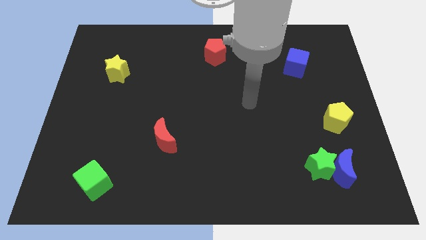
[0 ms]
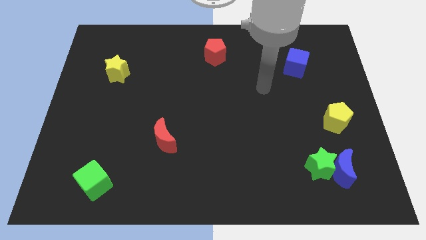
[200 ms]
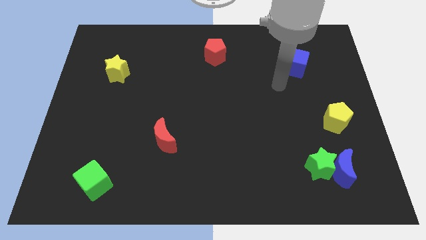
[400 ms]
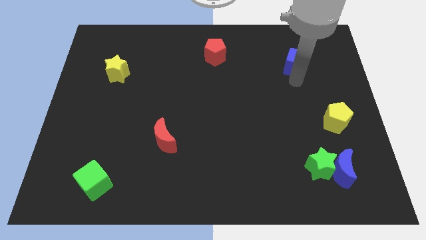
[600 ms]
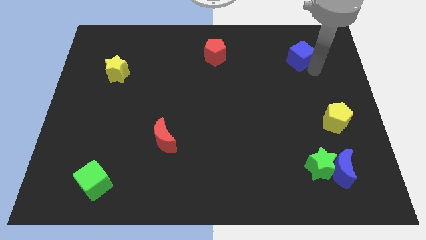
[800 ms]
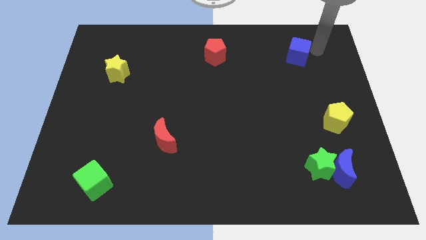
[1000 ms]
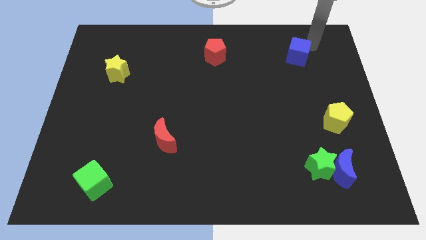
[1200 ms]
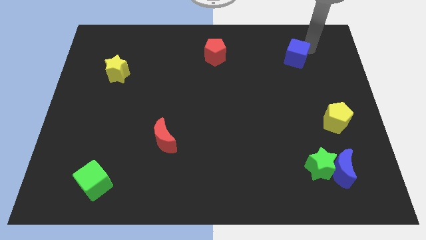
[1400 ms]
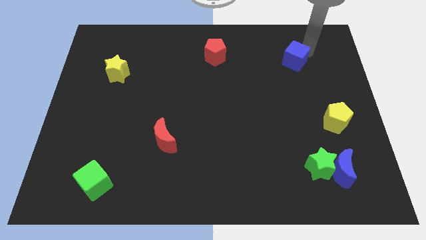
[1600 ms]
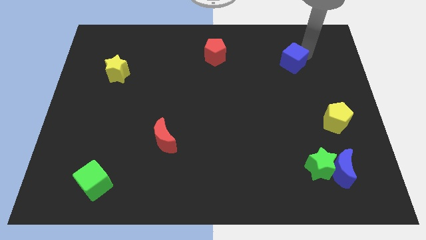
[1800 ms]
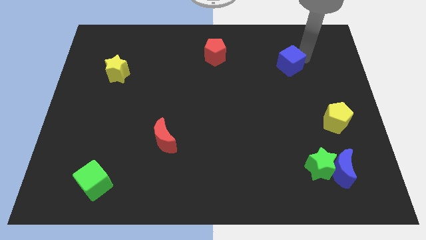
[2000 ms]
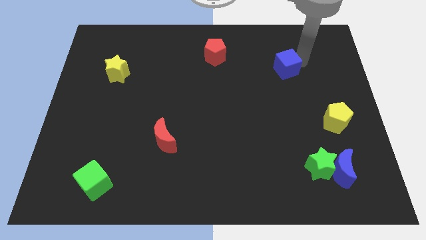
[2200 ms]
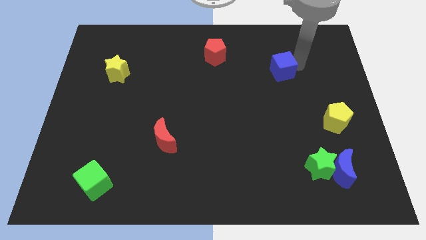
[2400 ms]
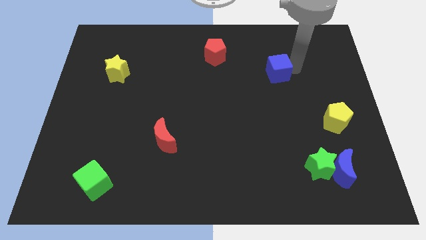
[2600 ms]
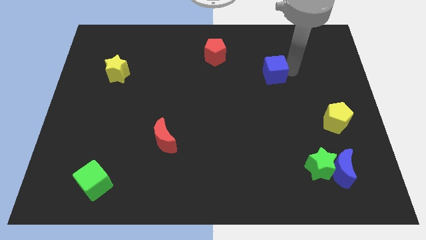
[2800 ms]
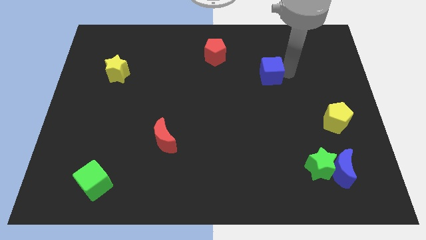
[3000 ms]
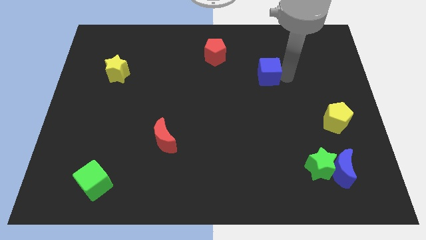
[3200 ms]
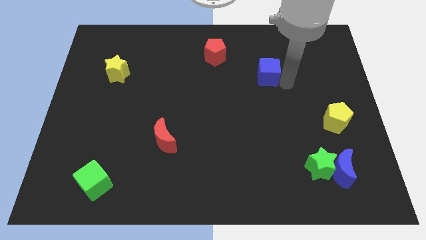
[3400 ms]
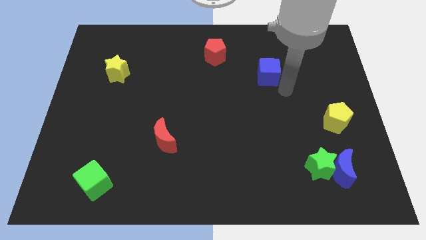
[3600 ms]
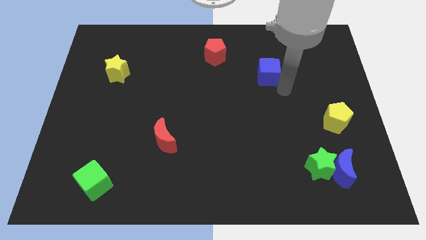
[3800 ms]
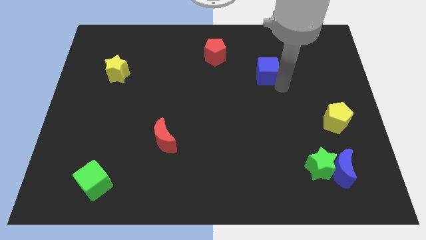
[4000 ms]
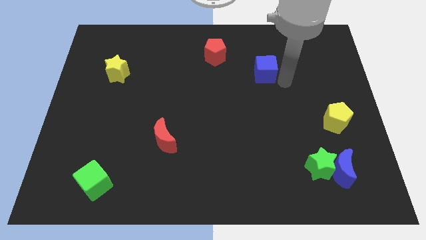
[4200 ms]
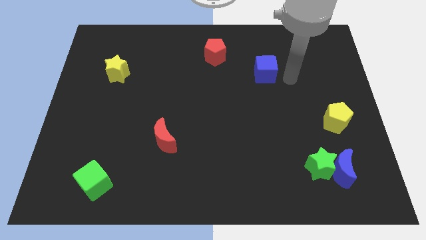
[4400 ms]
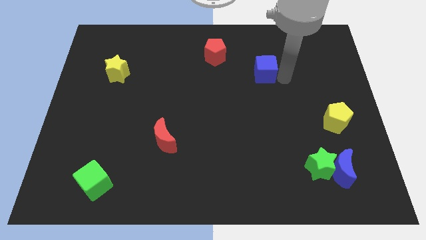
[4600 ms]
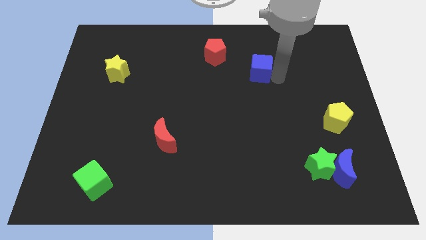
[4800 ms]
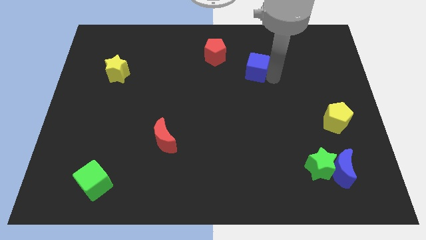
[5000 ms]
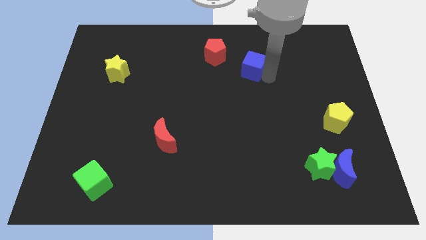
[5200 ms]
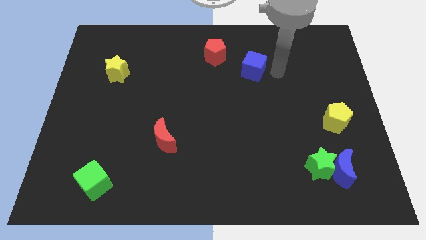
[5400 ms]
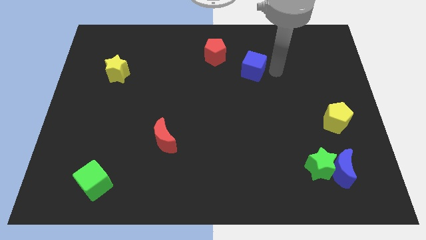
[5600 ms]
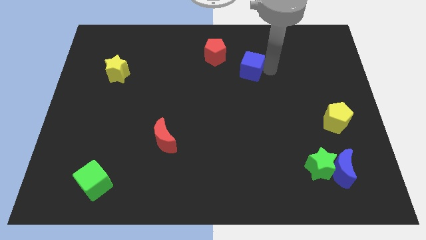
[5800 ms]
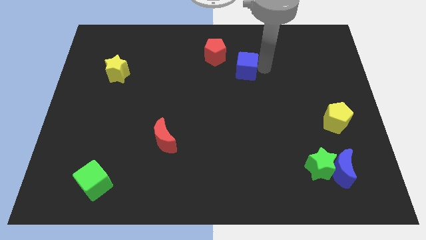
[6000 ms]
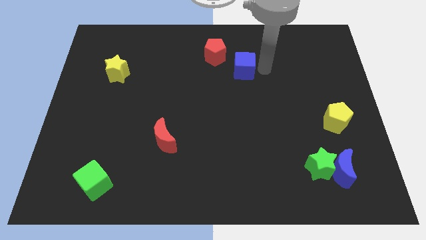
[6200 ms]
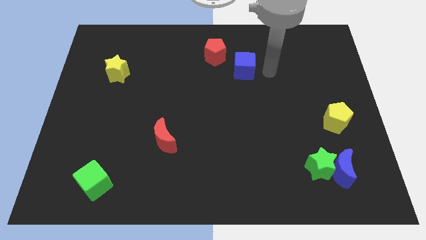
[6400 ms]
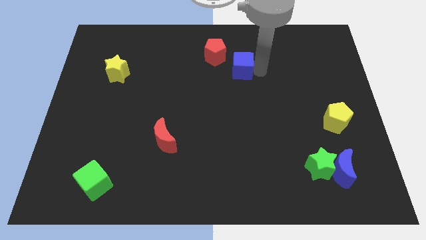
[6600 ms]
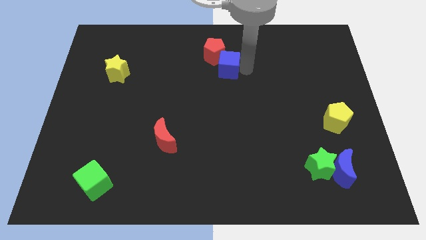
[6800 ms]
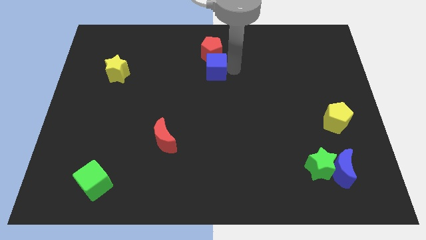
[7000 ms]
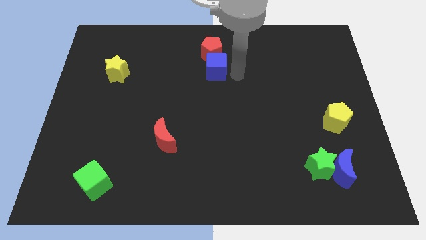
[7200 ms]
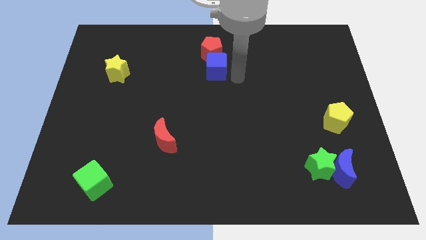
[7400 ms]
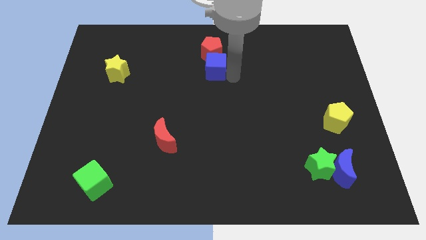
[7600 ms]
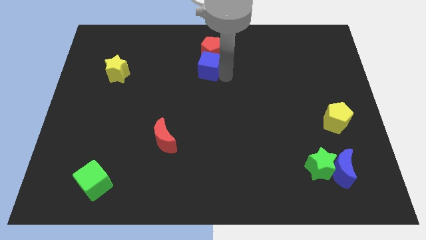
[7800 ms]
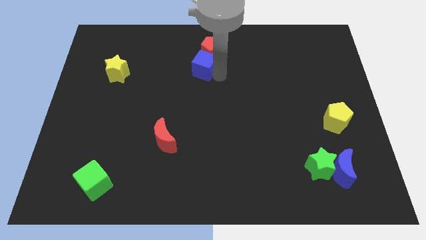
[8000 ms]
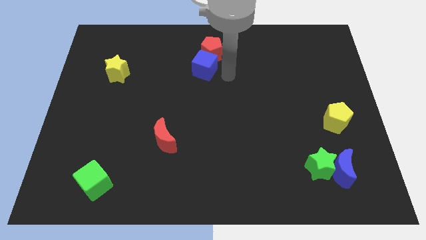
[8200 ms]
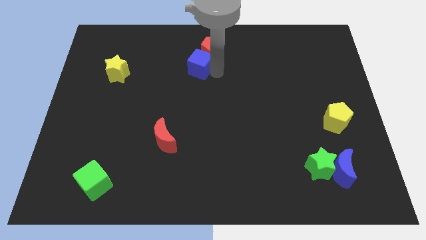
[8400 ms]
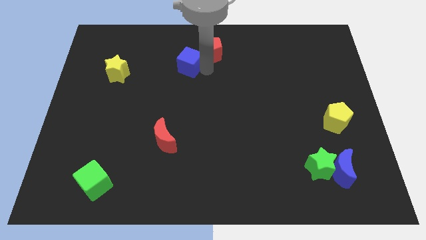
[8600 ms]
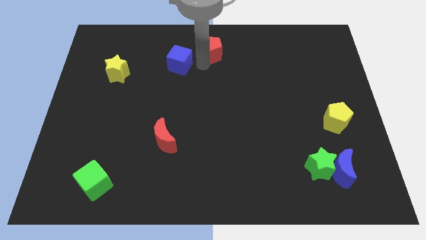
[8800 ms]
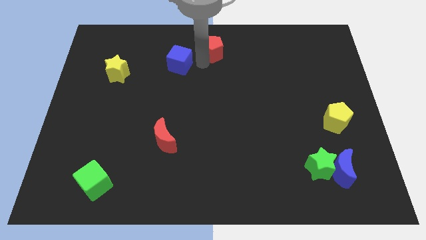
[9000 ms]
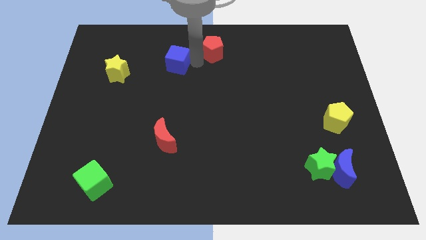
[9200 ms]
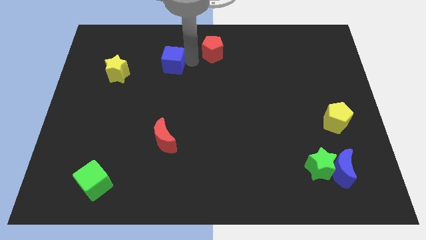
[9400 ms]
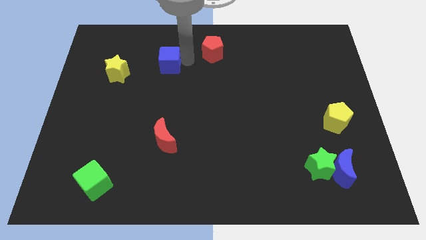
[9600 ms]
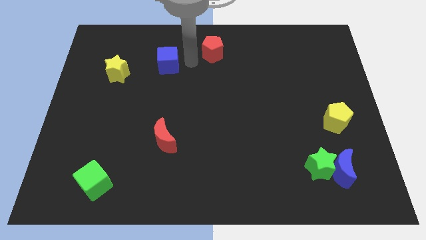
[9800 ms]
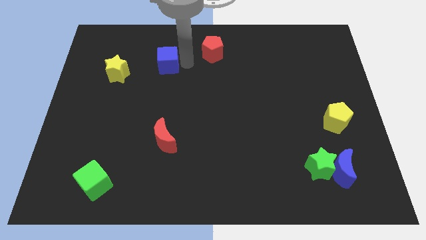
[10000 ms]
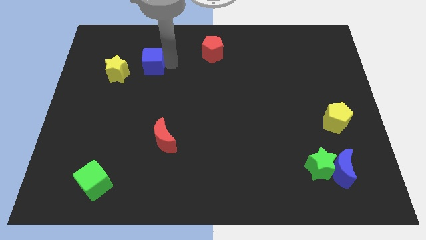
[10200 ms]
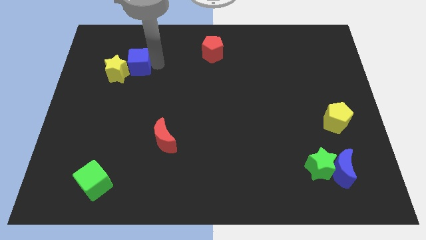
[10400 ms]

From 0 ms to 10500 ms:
move the blue cube close to the yellow star

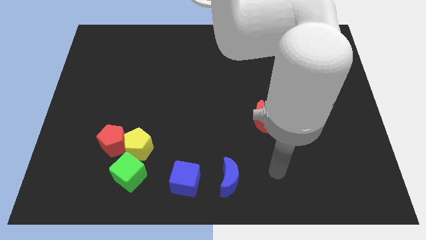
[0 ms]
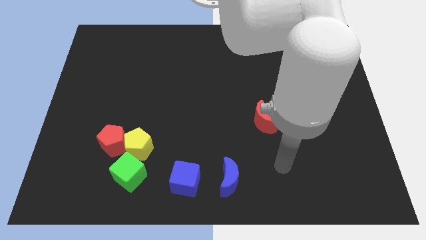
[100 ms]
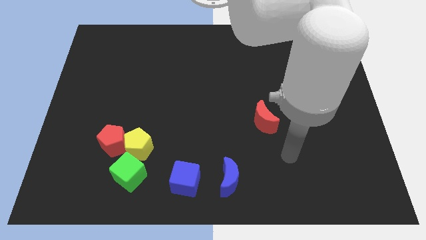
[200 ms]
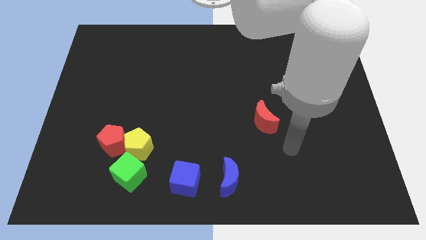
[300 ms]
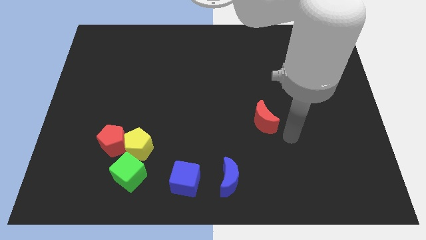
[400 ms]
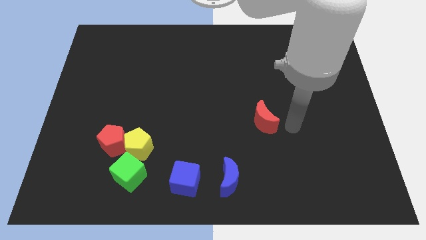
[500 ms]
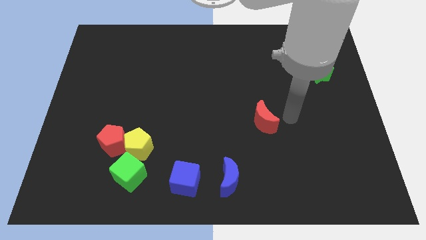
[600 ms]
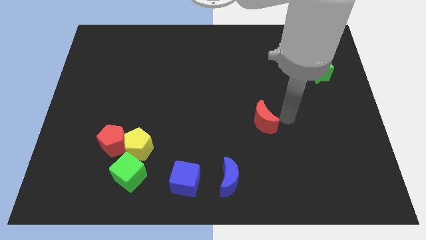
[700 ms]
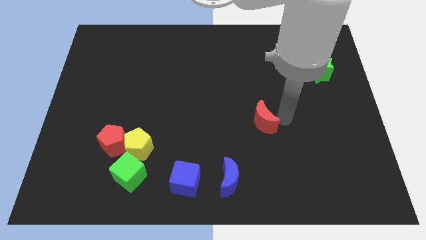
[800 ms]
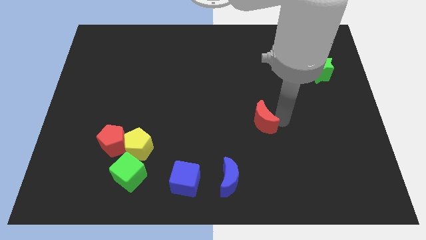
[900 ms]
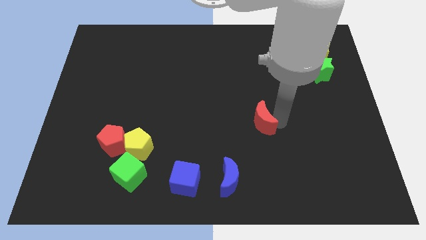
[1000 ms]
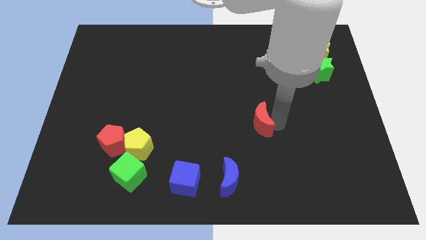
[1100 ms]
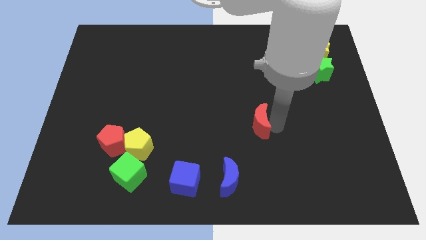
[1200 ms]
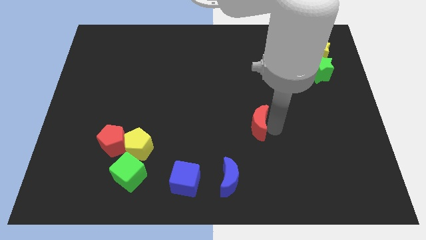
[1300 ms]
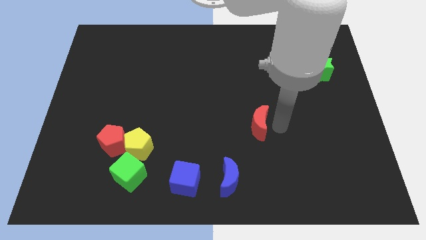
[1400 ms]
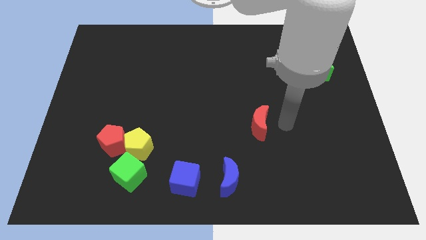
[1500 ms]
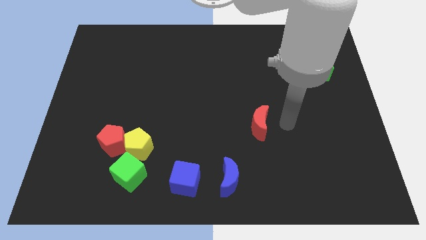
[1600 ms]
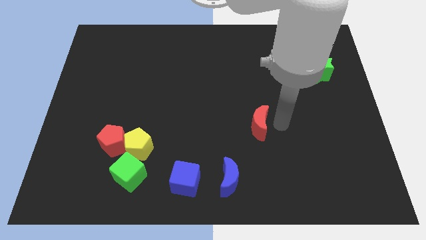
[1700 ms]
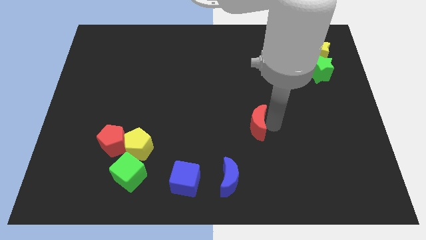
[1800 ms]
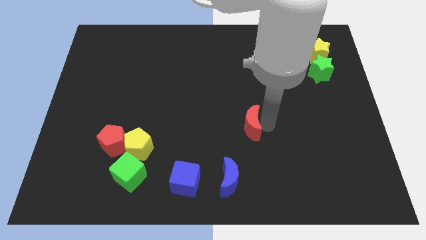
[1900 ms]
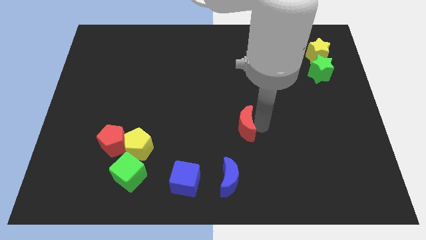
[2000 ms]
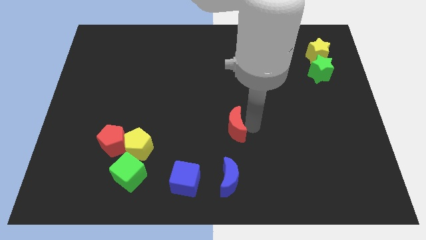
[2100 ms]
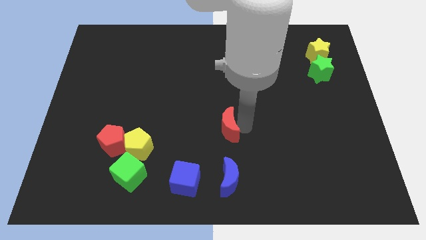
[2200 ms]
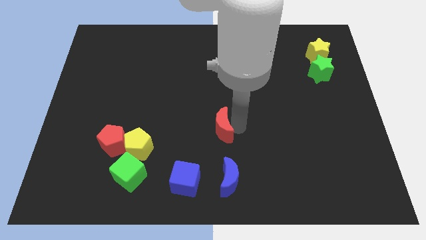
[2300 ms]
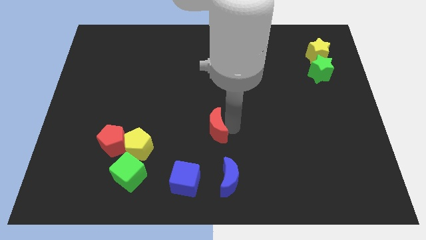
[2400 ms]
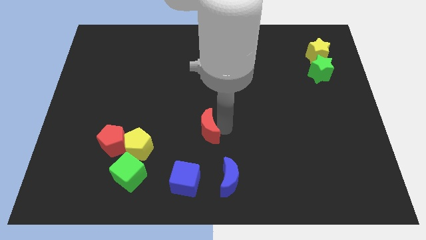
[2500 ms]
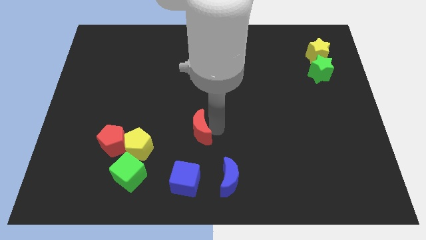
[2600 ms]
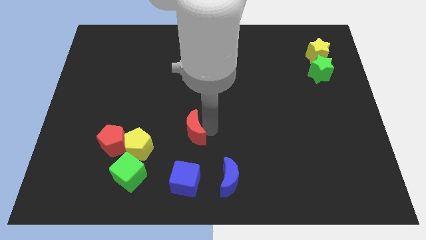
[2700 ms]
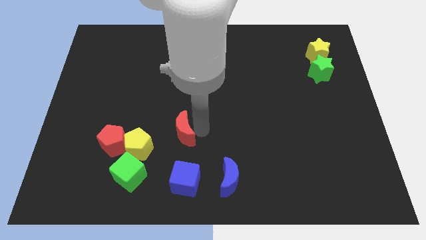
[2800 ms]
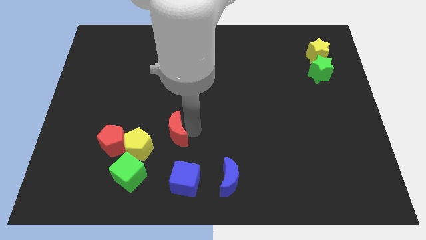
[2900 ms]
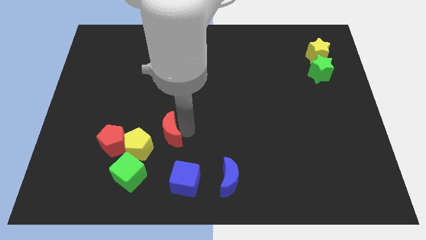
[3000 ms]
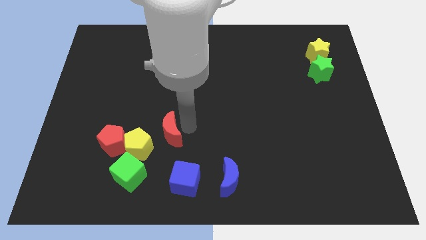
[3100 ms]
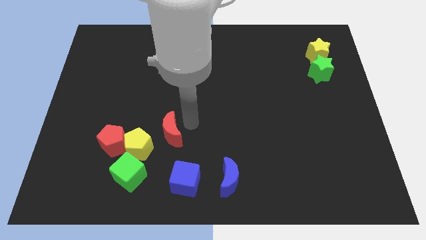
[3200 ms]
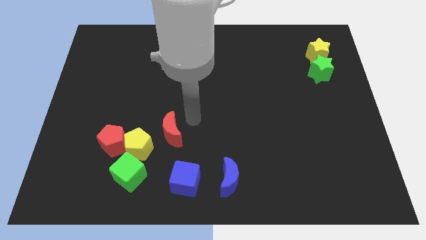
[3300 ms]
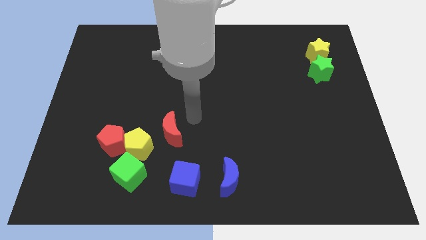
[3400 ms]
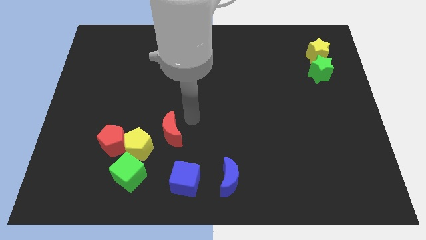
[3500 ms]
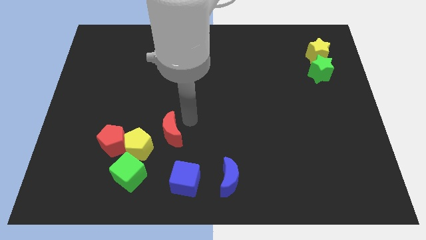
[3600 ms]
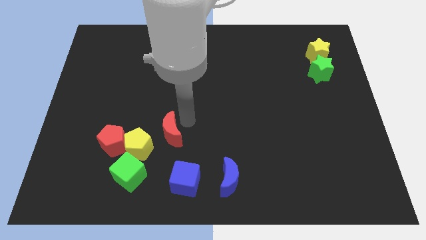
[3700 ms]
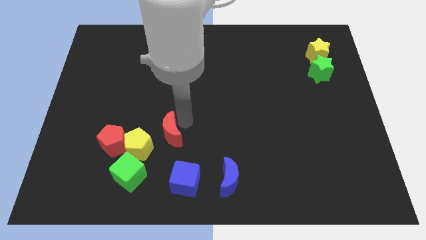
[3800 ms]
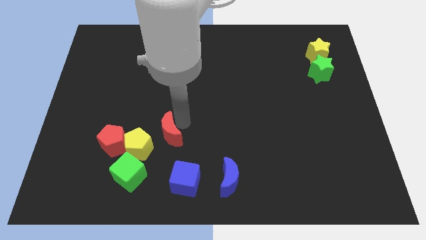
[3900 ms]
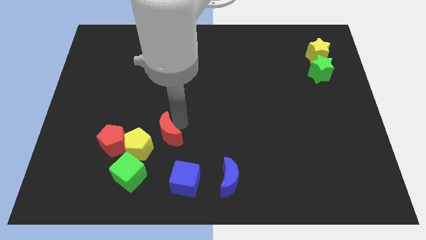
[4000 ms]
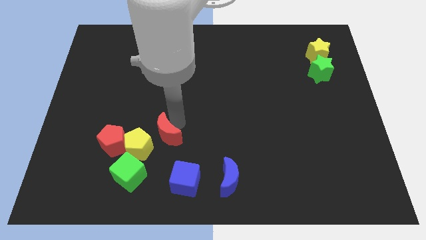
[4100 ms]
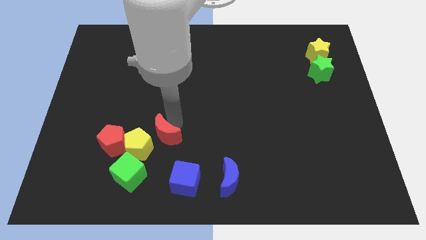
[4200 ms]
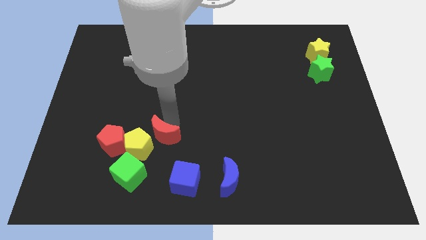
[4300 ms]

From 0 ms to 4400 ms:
push the red moon towards the yellow pentagon
